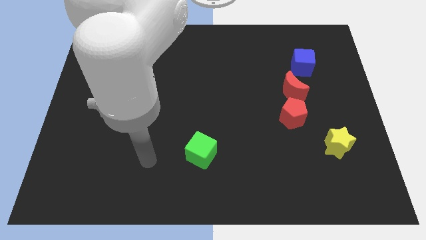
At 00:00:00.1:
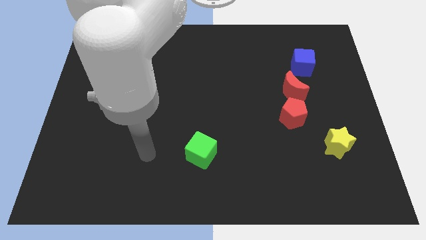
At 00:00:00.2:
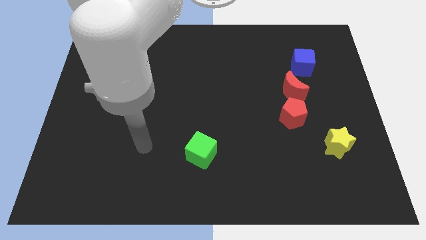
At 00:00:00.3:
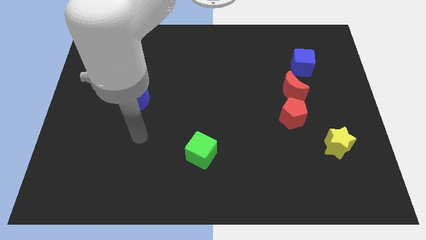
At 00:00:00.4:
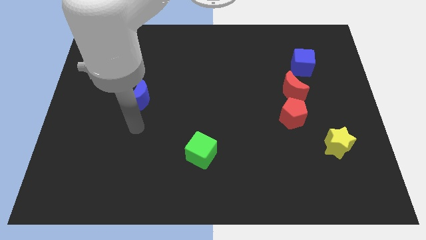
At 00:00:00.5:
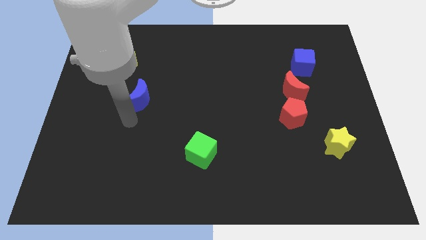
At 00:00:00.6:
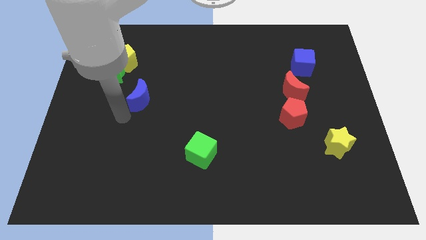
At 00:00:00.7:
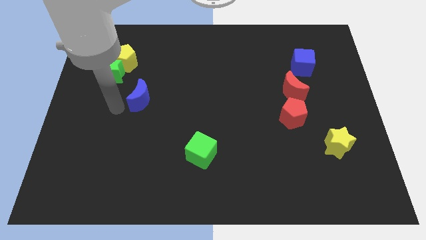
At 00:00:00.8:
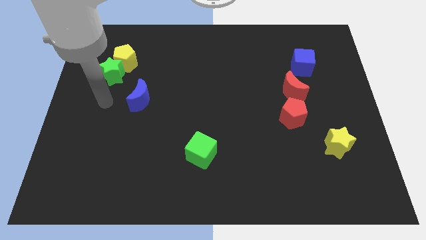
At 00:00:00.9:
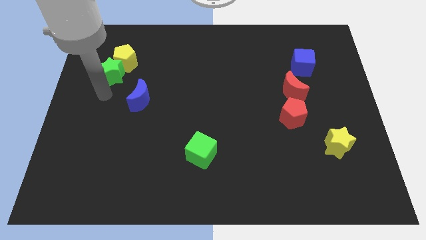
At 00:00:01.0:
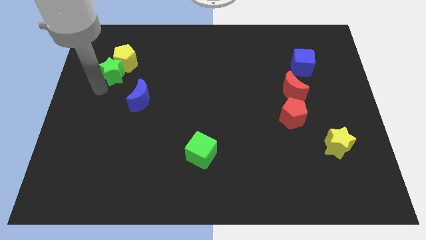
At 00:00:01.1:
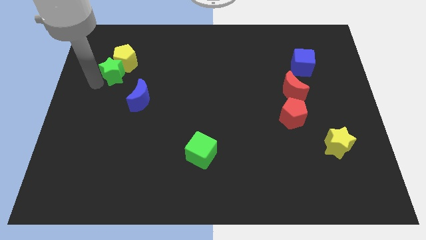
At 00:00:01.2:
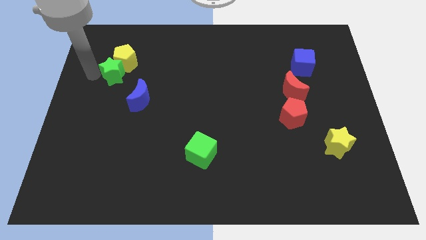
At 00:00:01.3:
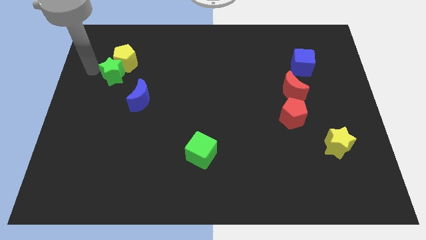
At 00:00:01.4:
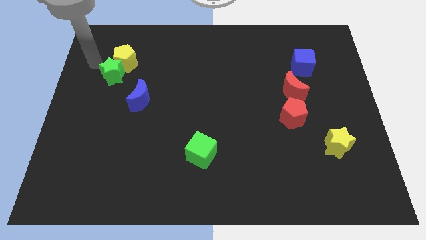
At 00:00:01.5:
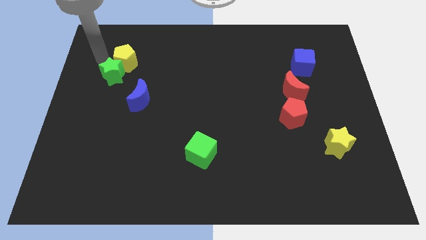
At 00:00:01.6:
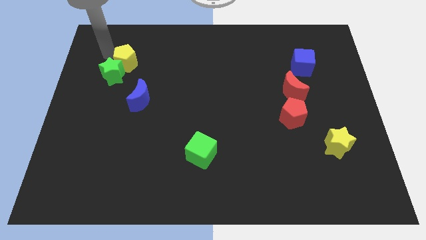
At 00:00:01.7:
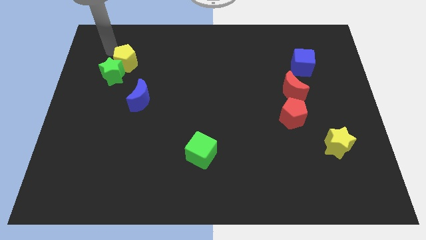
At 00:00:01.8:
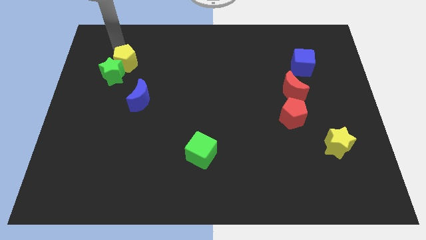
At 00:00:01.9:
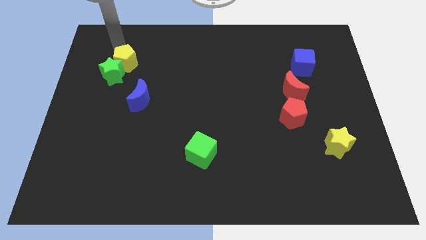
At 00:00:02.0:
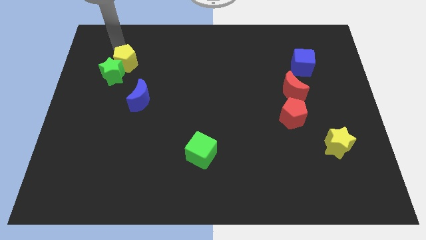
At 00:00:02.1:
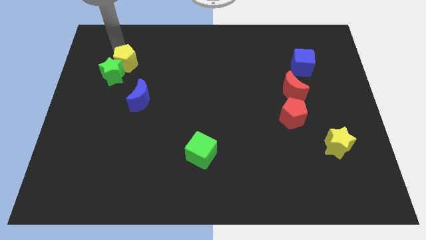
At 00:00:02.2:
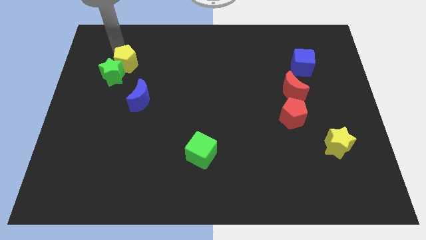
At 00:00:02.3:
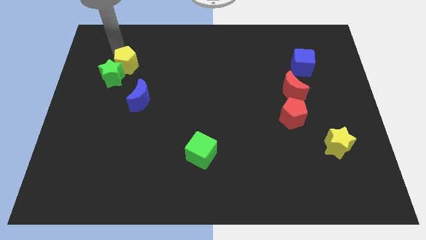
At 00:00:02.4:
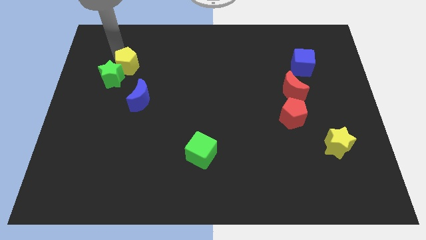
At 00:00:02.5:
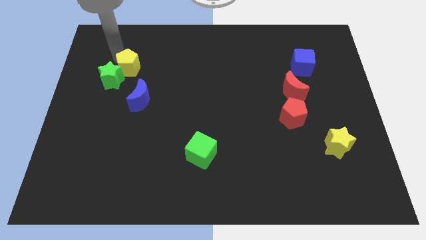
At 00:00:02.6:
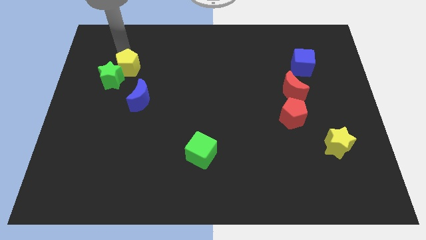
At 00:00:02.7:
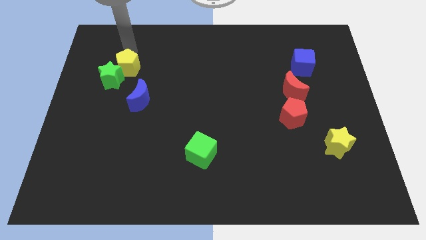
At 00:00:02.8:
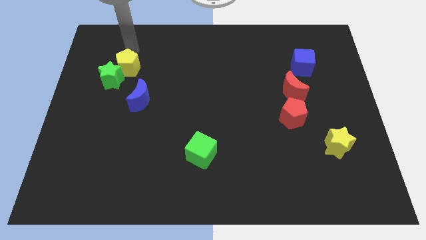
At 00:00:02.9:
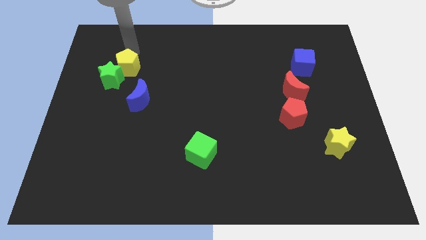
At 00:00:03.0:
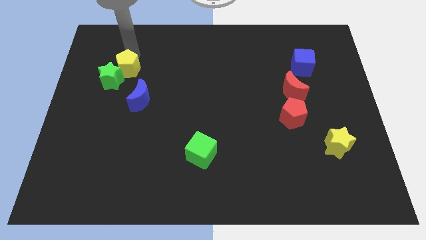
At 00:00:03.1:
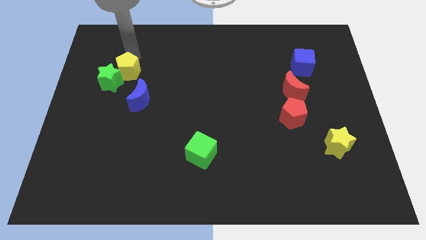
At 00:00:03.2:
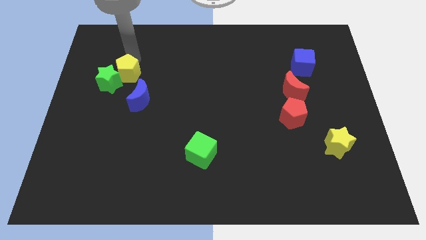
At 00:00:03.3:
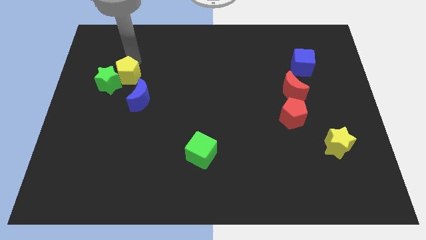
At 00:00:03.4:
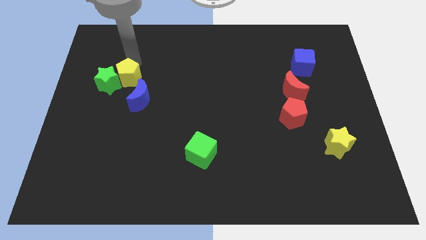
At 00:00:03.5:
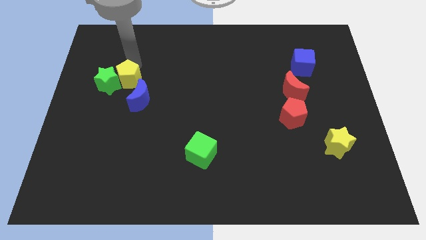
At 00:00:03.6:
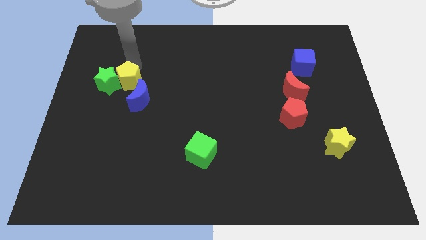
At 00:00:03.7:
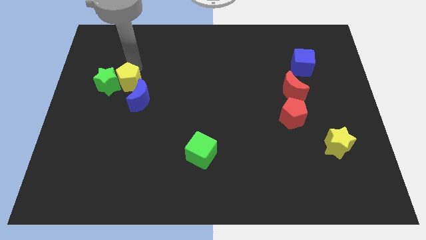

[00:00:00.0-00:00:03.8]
slide the yellow pentagon downwards a little bit

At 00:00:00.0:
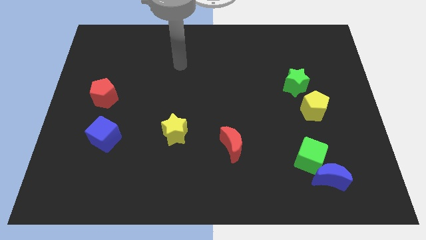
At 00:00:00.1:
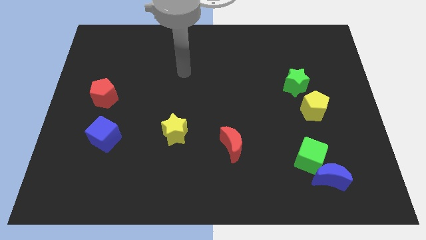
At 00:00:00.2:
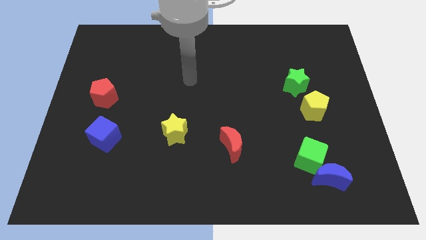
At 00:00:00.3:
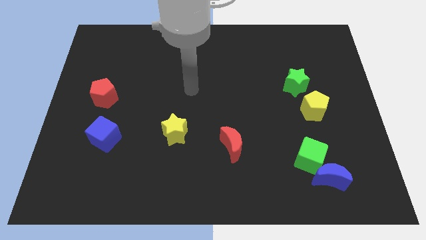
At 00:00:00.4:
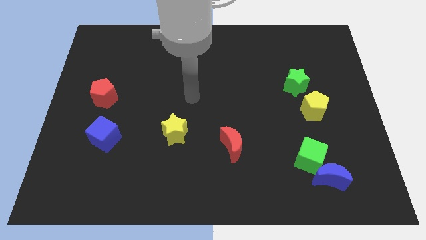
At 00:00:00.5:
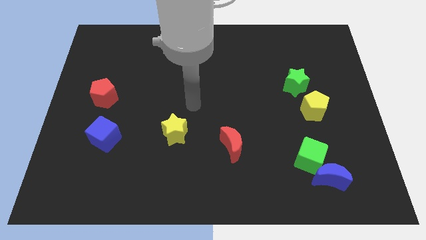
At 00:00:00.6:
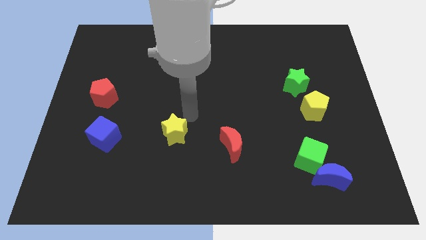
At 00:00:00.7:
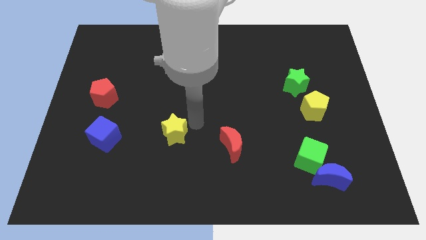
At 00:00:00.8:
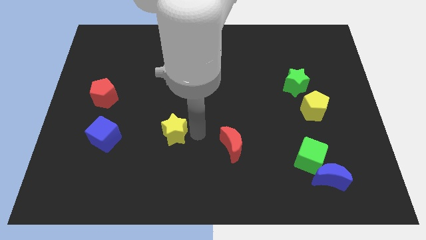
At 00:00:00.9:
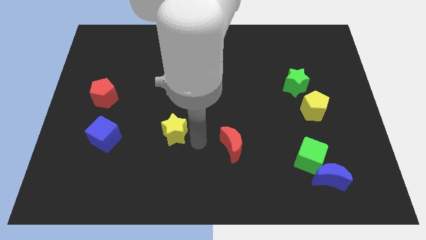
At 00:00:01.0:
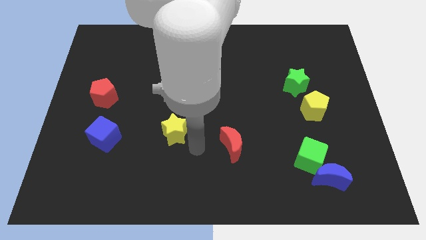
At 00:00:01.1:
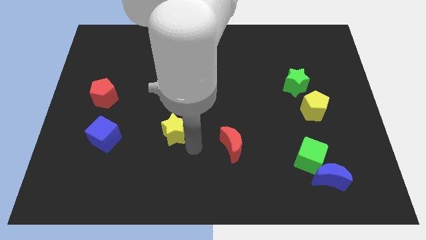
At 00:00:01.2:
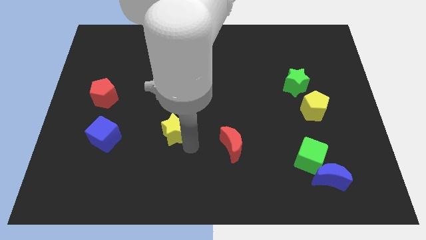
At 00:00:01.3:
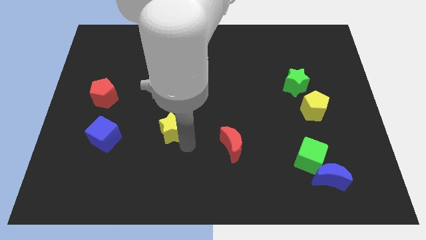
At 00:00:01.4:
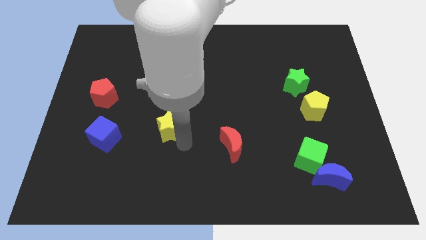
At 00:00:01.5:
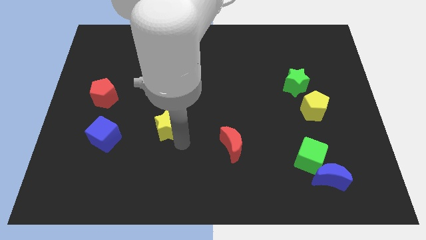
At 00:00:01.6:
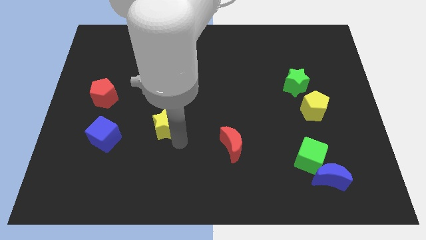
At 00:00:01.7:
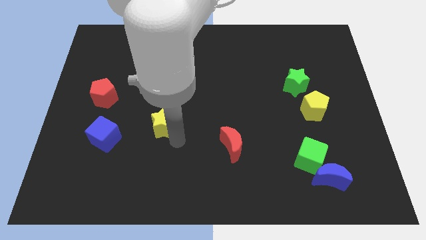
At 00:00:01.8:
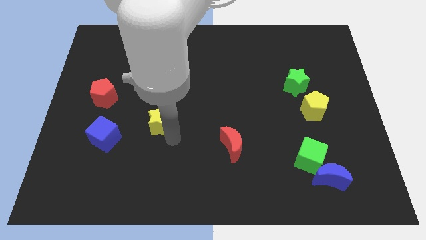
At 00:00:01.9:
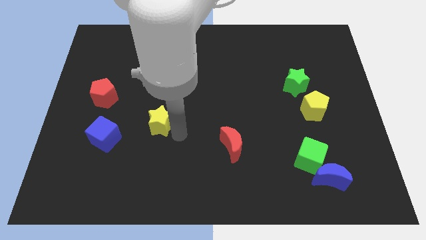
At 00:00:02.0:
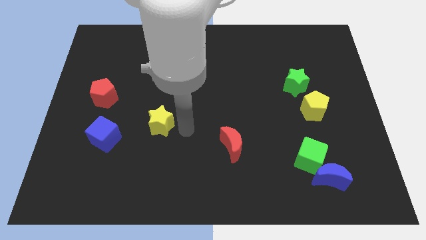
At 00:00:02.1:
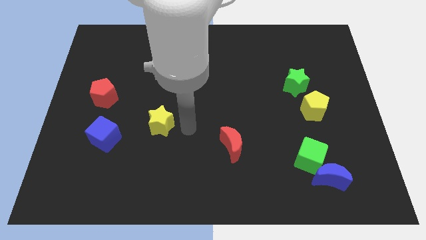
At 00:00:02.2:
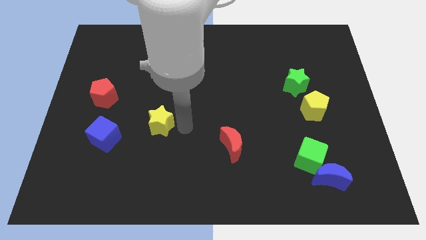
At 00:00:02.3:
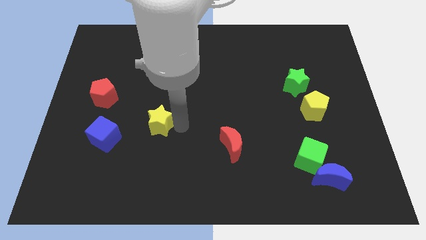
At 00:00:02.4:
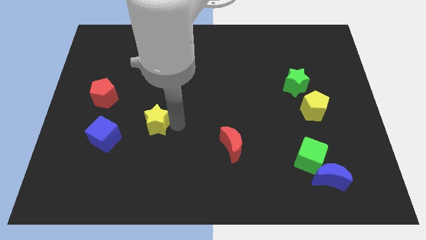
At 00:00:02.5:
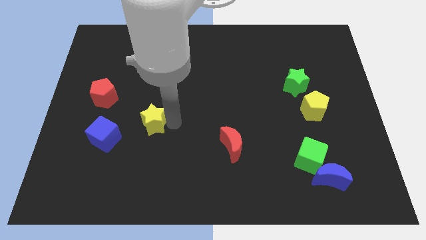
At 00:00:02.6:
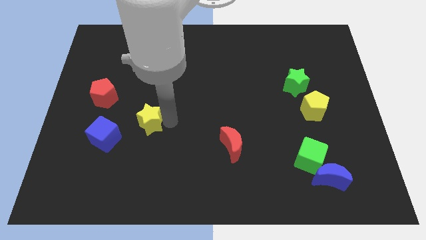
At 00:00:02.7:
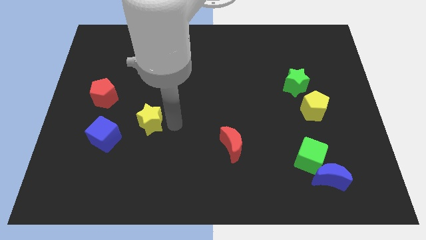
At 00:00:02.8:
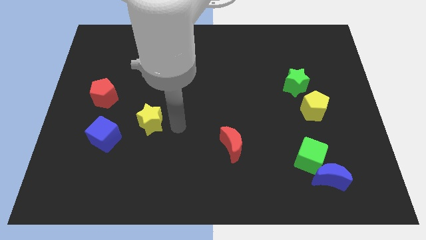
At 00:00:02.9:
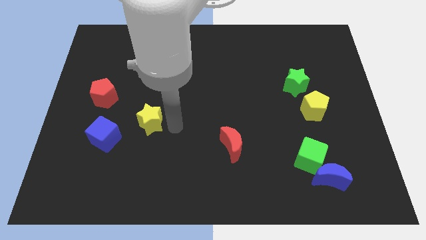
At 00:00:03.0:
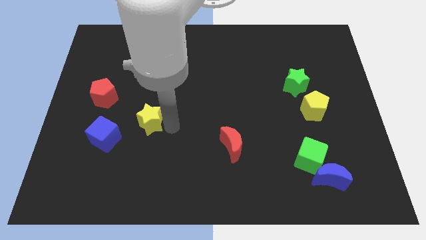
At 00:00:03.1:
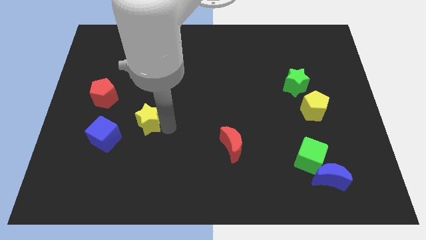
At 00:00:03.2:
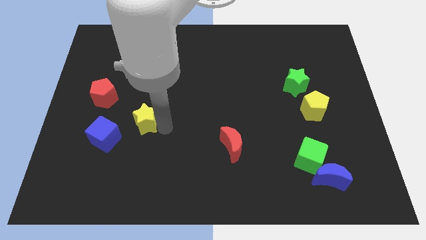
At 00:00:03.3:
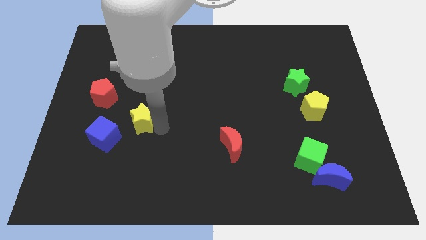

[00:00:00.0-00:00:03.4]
slide the yellow star left slightly

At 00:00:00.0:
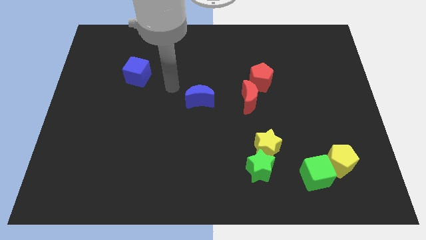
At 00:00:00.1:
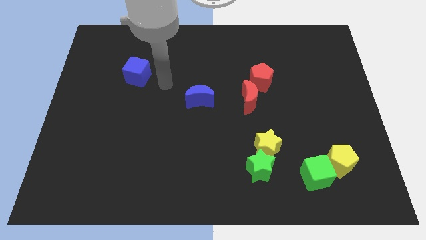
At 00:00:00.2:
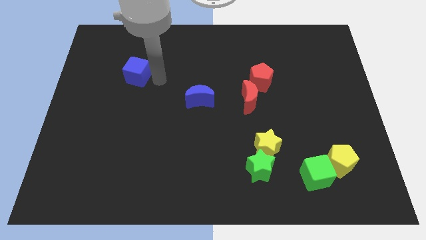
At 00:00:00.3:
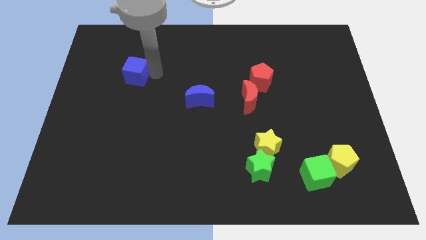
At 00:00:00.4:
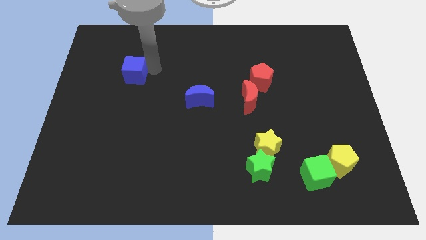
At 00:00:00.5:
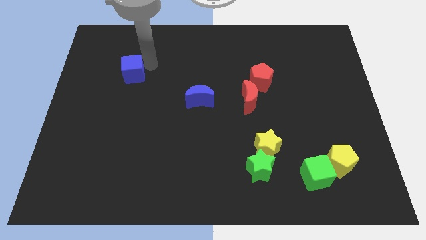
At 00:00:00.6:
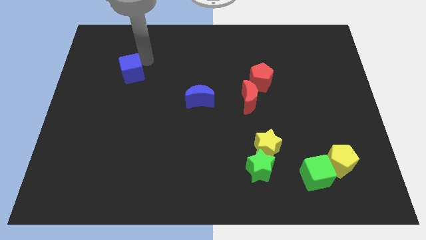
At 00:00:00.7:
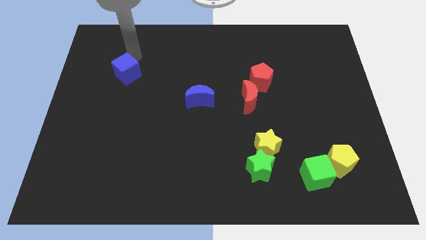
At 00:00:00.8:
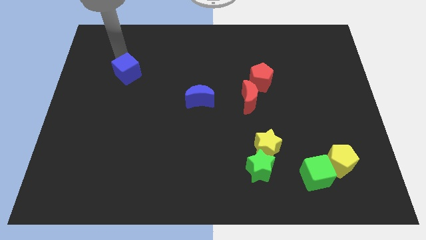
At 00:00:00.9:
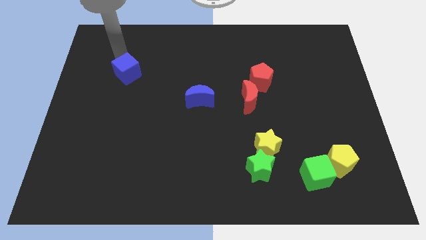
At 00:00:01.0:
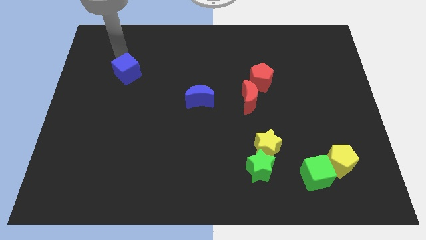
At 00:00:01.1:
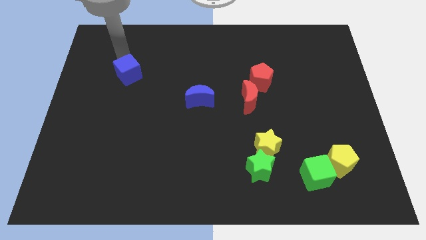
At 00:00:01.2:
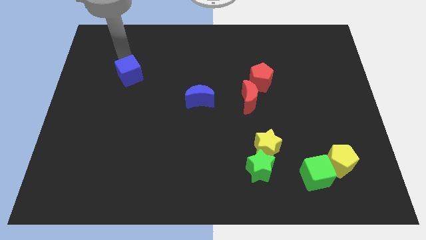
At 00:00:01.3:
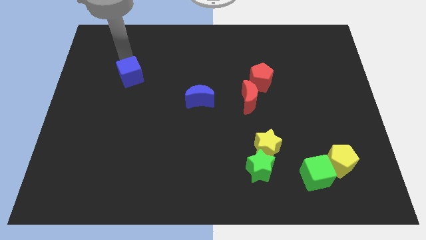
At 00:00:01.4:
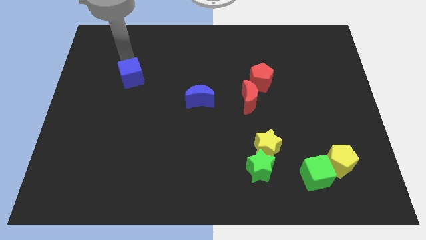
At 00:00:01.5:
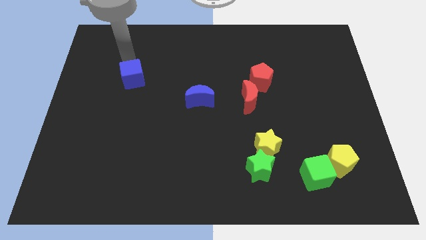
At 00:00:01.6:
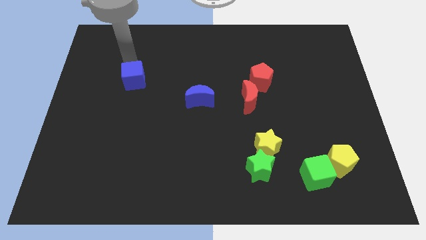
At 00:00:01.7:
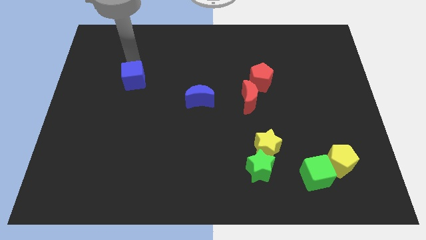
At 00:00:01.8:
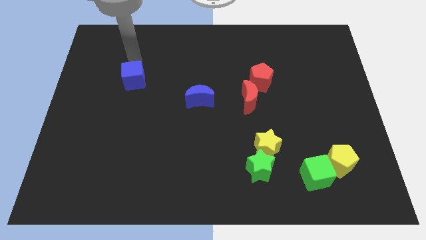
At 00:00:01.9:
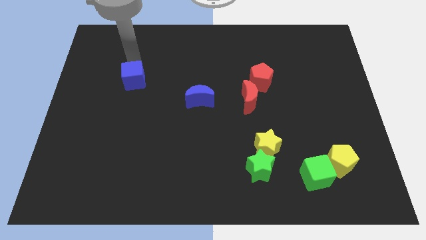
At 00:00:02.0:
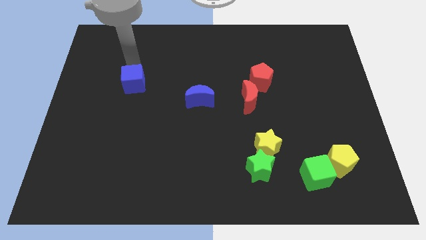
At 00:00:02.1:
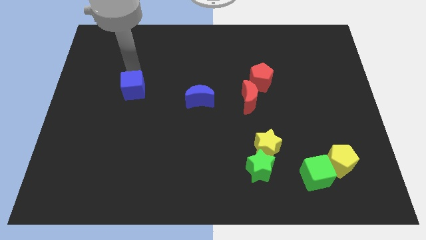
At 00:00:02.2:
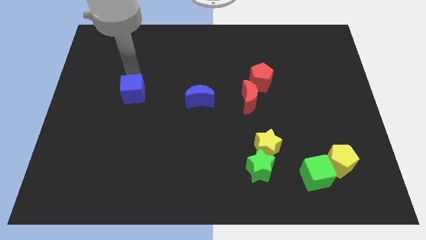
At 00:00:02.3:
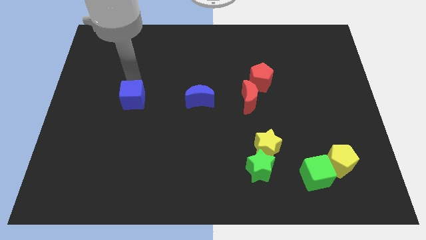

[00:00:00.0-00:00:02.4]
slide the blue cube a bit downwards
